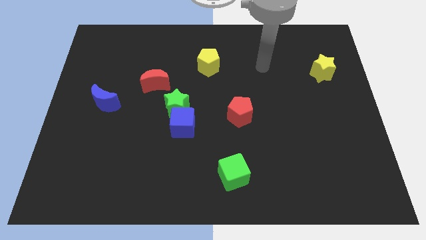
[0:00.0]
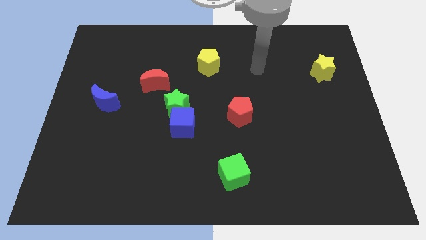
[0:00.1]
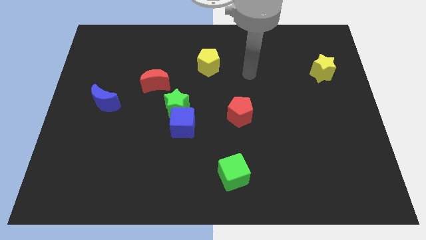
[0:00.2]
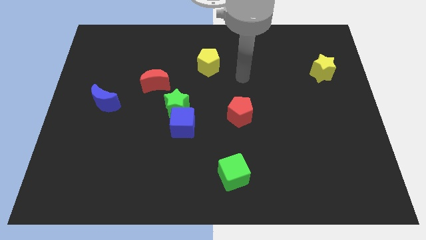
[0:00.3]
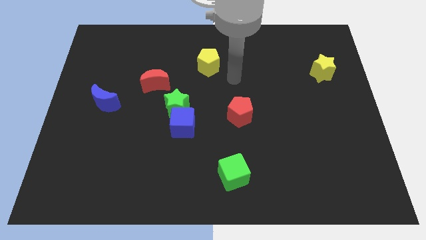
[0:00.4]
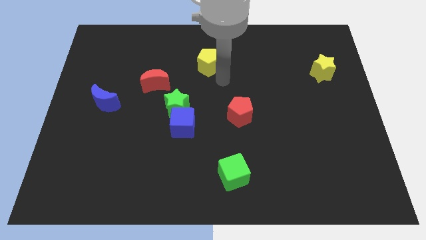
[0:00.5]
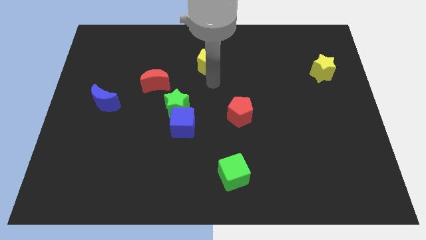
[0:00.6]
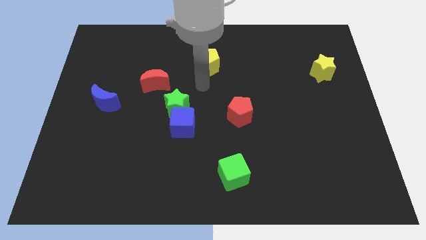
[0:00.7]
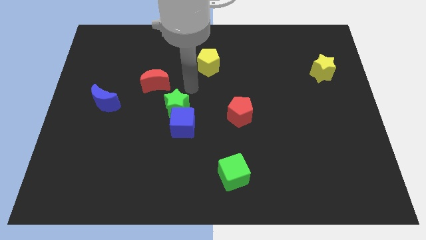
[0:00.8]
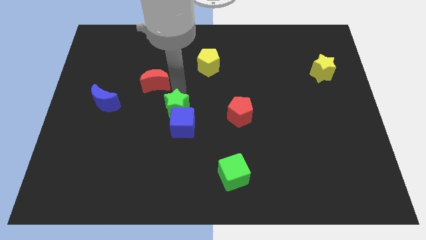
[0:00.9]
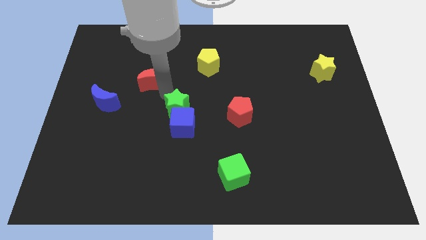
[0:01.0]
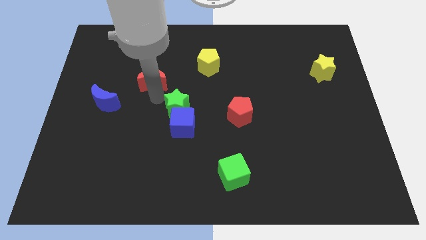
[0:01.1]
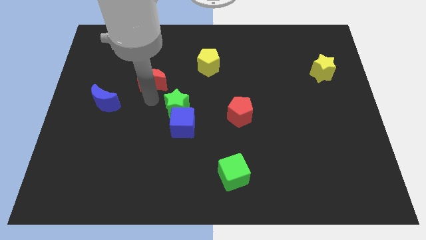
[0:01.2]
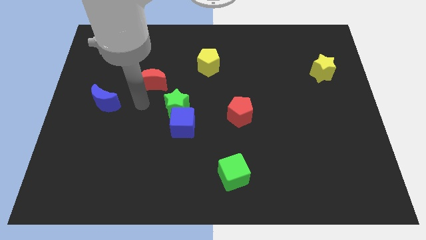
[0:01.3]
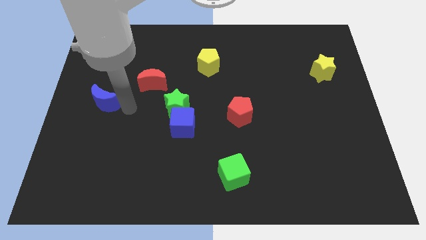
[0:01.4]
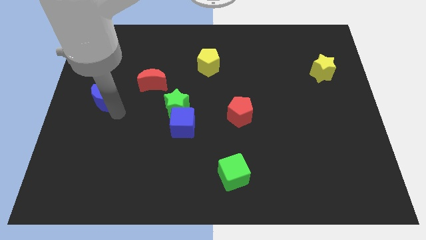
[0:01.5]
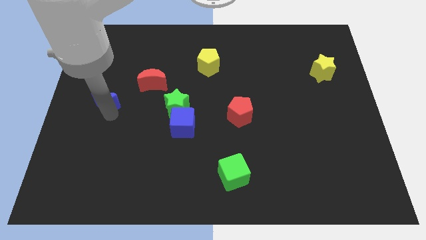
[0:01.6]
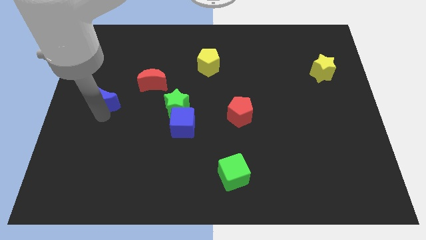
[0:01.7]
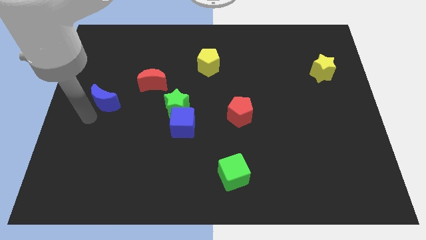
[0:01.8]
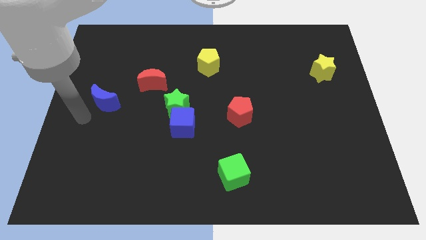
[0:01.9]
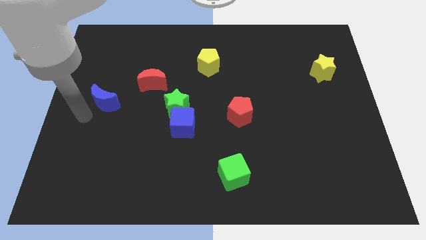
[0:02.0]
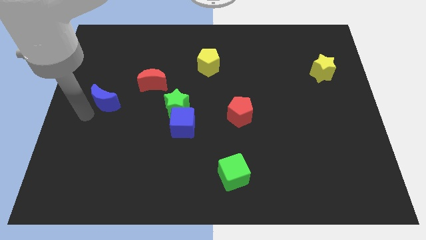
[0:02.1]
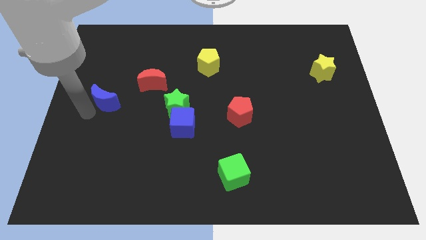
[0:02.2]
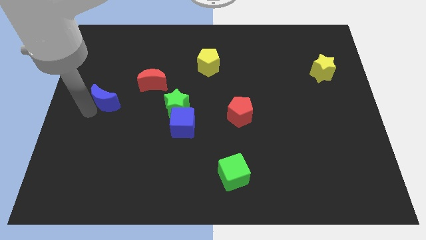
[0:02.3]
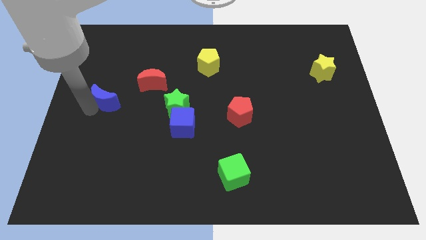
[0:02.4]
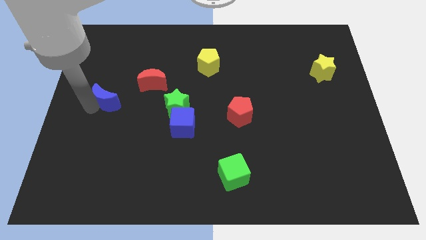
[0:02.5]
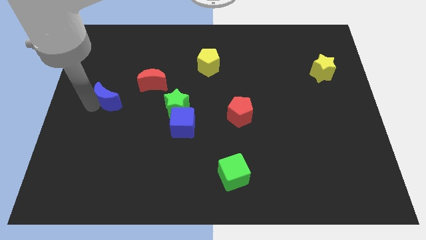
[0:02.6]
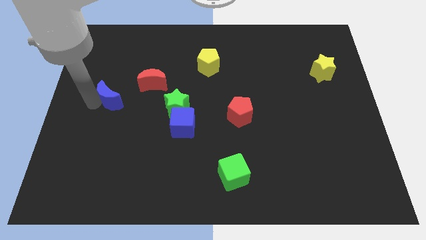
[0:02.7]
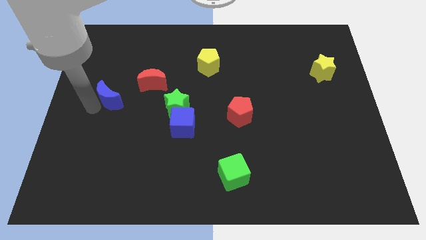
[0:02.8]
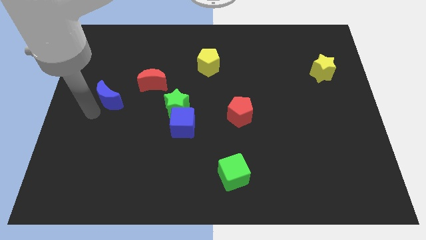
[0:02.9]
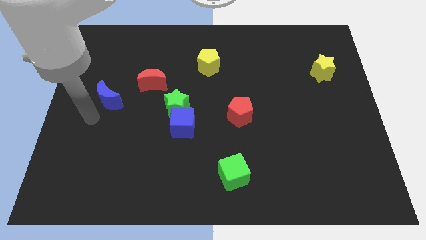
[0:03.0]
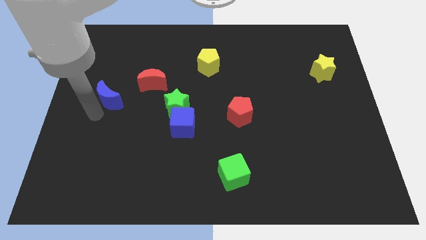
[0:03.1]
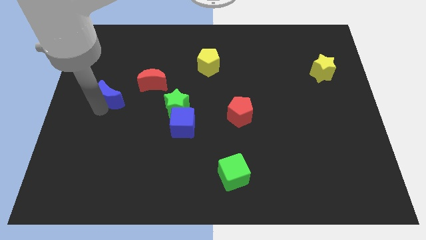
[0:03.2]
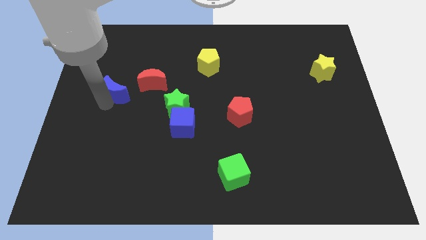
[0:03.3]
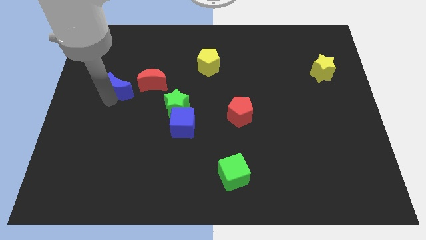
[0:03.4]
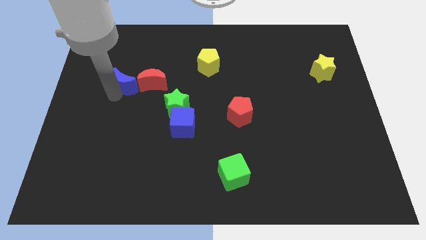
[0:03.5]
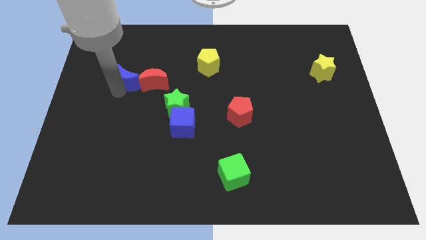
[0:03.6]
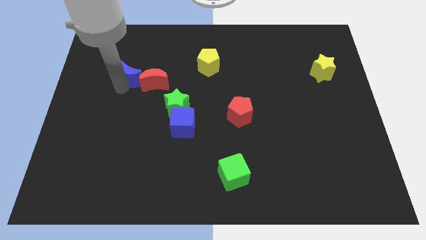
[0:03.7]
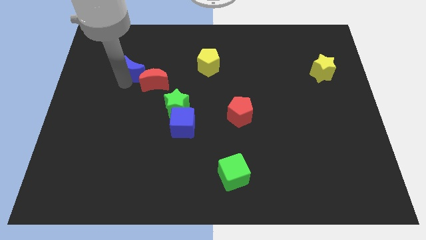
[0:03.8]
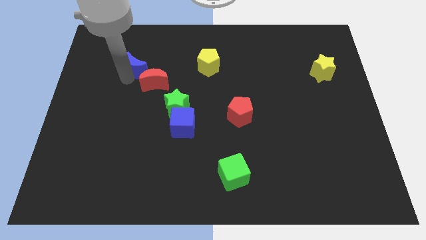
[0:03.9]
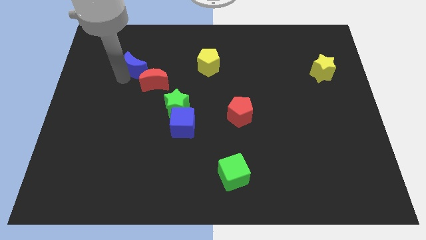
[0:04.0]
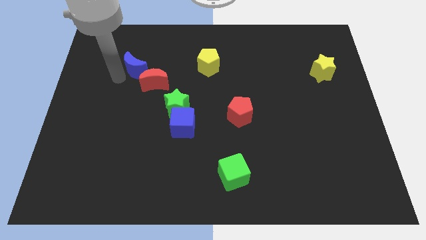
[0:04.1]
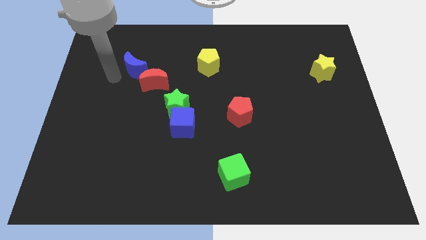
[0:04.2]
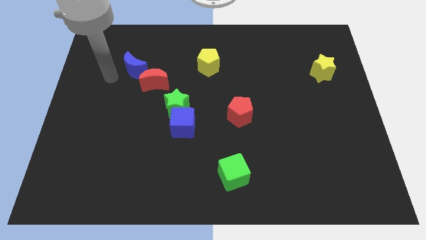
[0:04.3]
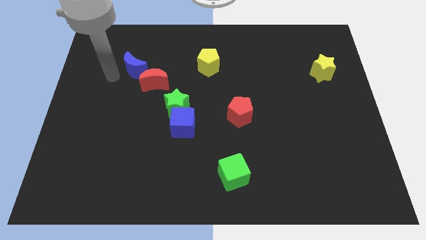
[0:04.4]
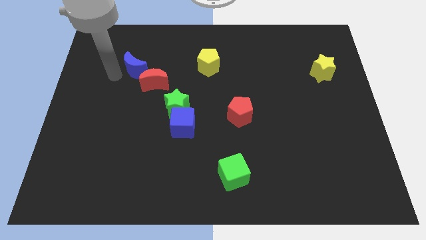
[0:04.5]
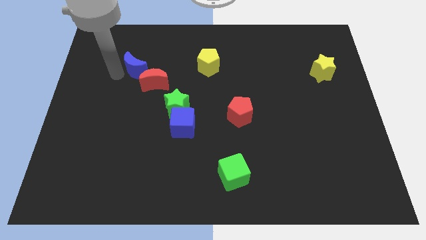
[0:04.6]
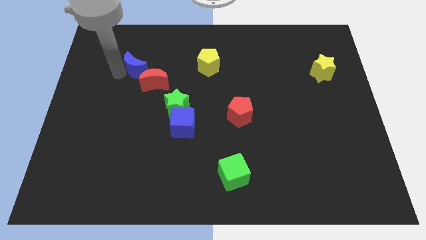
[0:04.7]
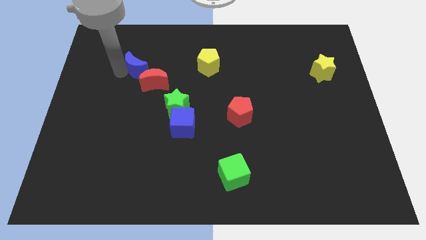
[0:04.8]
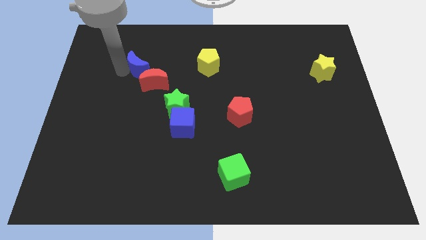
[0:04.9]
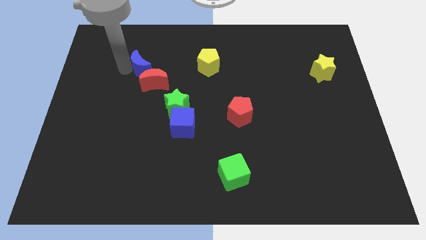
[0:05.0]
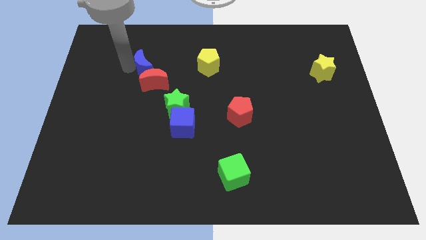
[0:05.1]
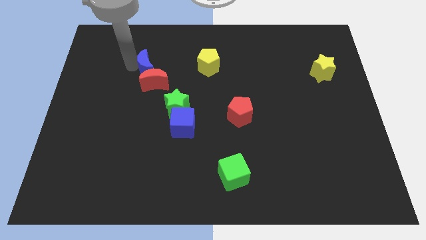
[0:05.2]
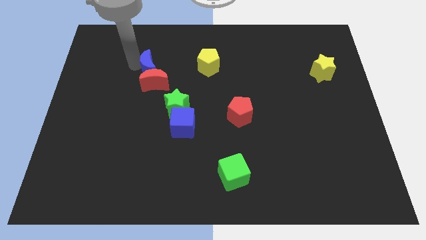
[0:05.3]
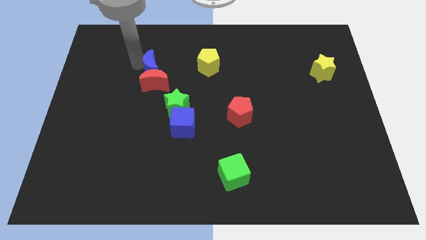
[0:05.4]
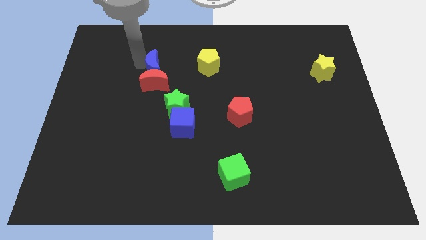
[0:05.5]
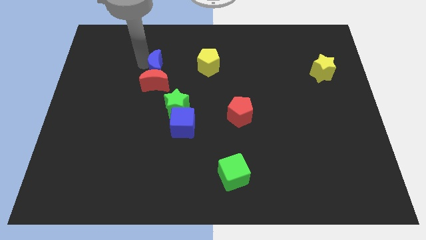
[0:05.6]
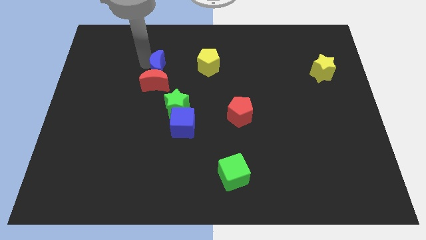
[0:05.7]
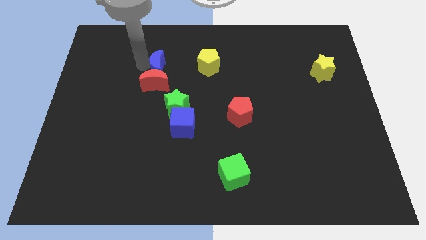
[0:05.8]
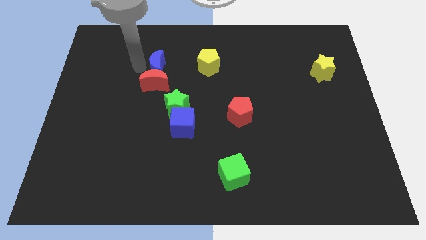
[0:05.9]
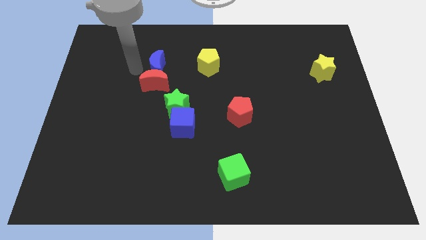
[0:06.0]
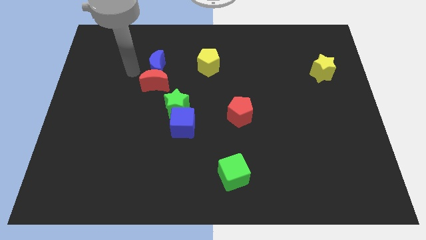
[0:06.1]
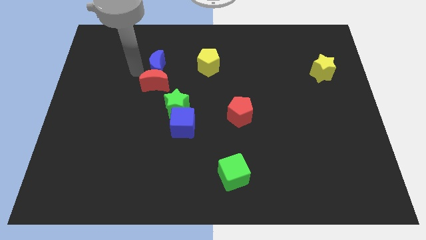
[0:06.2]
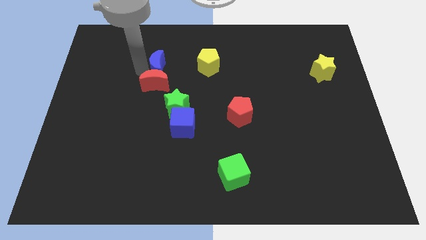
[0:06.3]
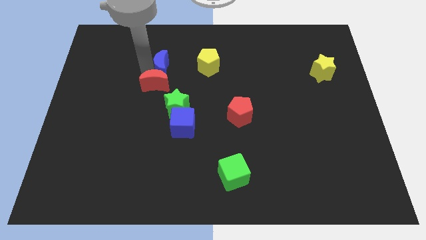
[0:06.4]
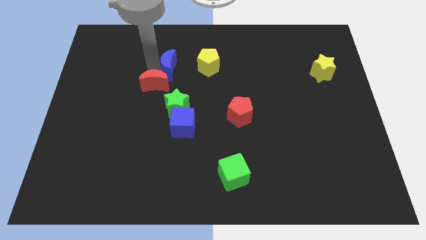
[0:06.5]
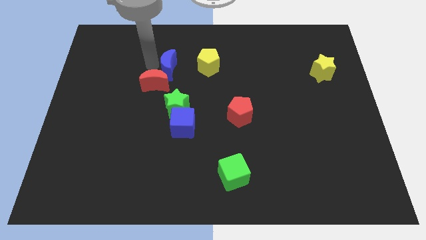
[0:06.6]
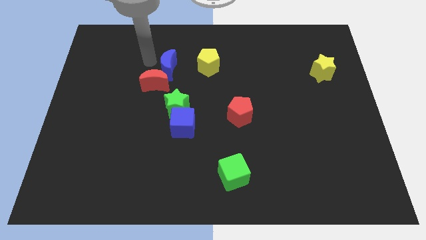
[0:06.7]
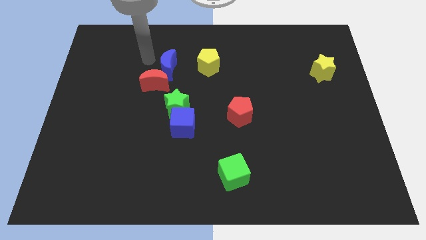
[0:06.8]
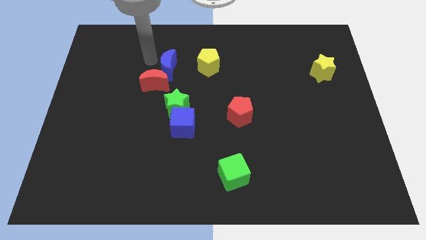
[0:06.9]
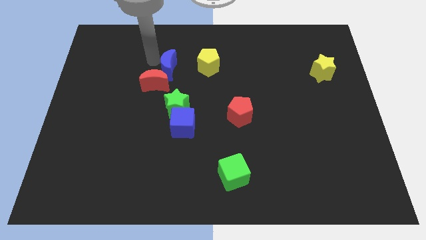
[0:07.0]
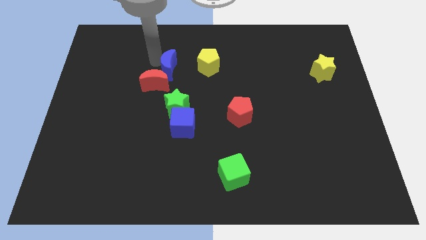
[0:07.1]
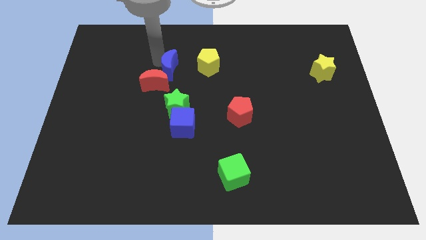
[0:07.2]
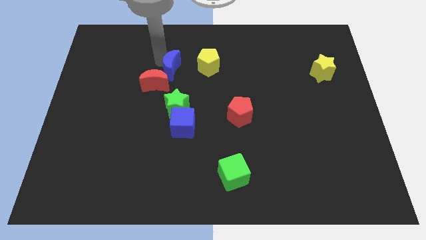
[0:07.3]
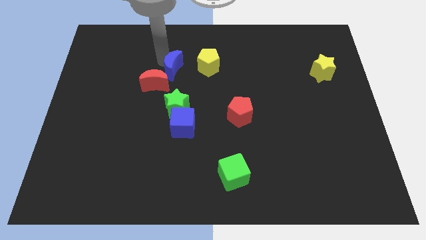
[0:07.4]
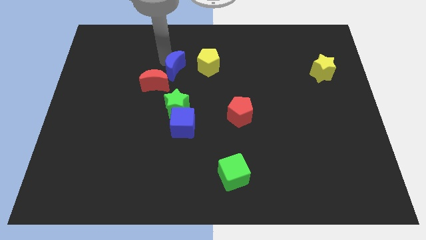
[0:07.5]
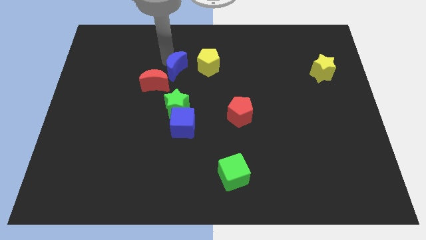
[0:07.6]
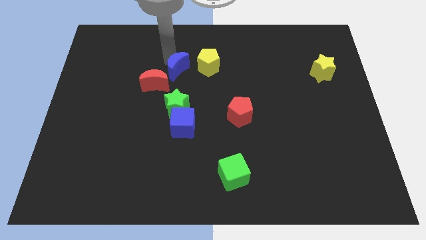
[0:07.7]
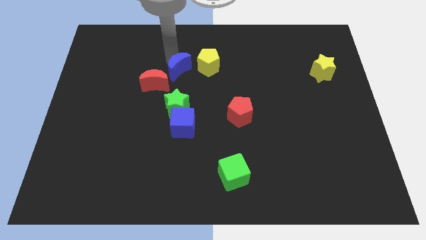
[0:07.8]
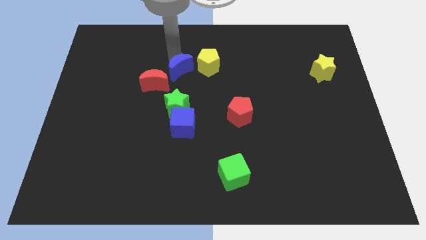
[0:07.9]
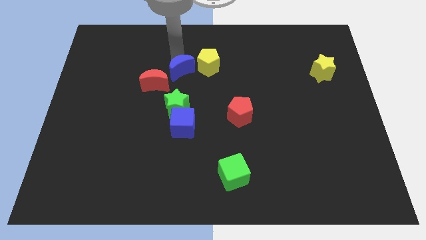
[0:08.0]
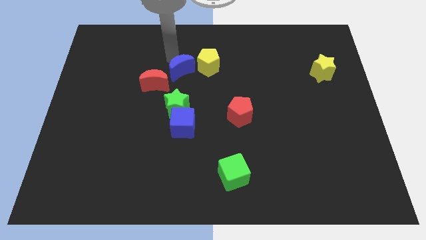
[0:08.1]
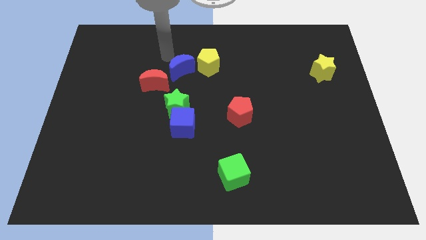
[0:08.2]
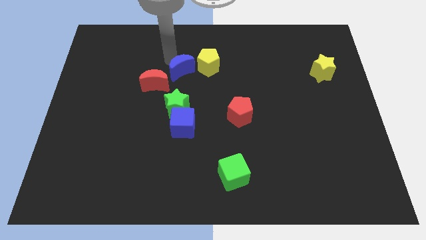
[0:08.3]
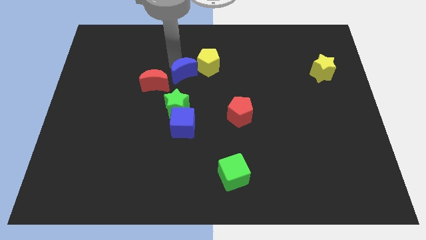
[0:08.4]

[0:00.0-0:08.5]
move the blue moon to the middle of the board
